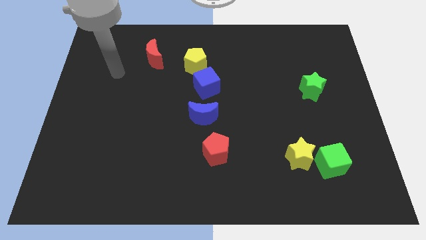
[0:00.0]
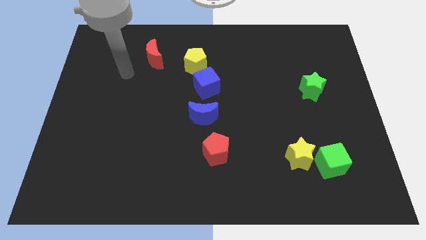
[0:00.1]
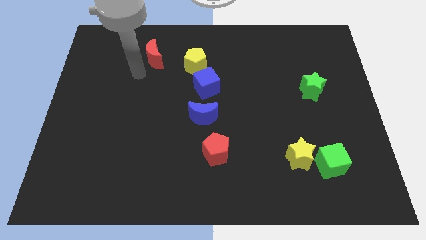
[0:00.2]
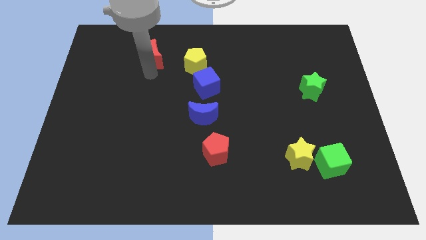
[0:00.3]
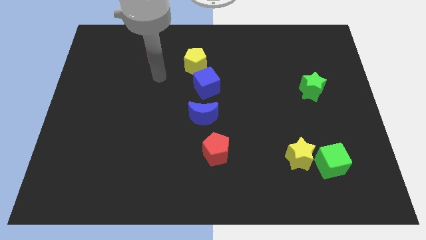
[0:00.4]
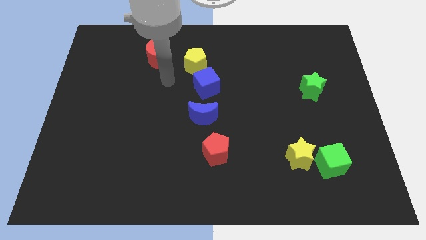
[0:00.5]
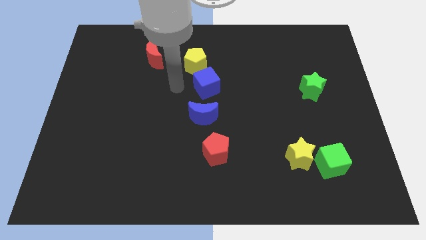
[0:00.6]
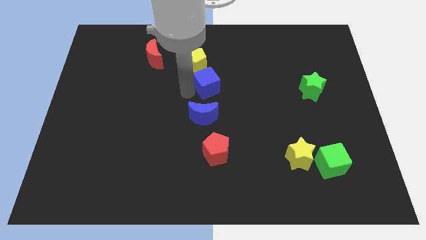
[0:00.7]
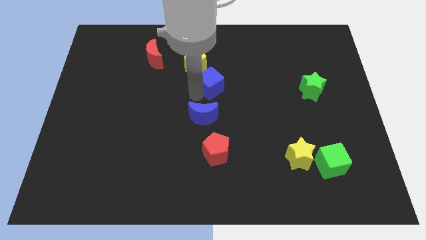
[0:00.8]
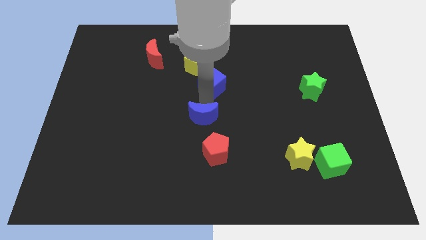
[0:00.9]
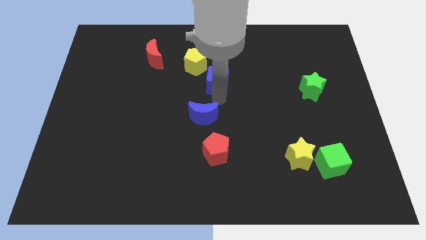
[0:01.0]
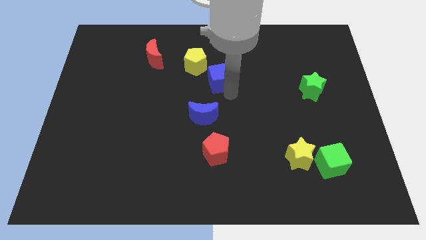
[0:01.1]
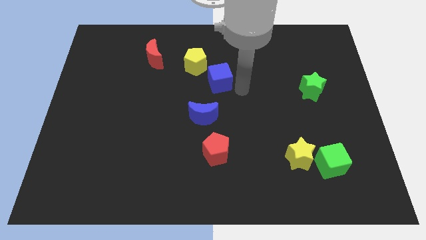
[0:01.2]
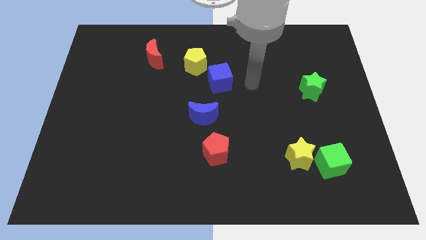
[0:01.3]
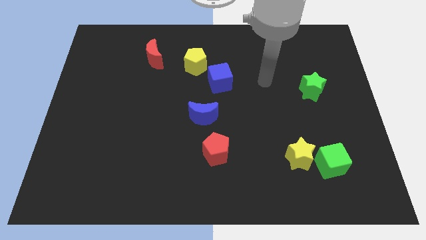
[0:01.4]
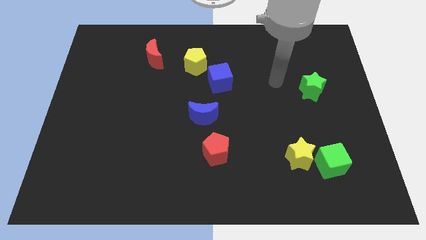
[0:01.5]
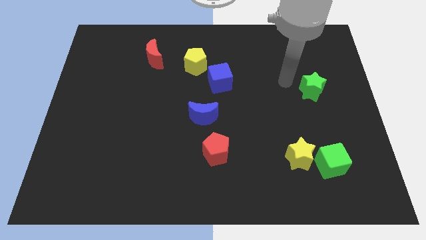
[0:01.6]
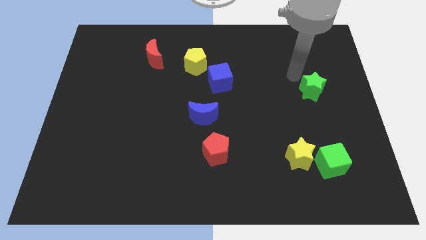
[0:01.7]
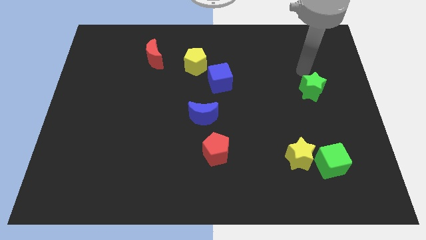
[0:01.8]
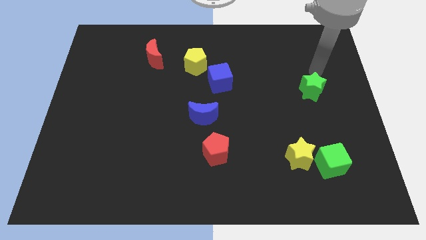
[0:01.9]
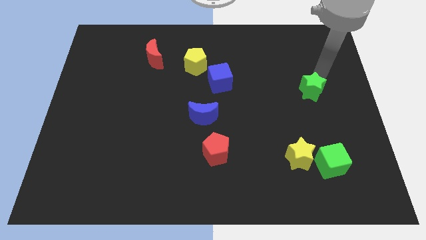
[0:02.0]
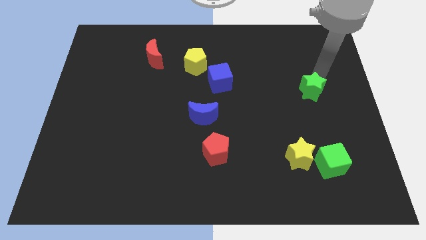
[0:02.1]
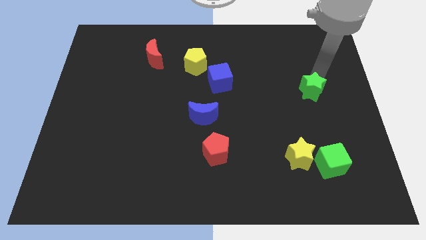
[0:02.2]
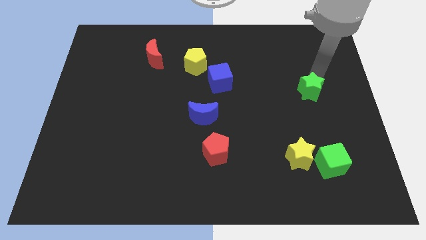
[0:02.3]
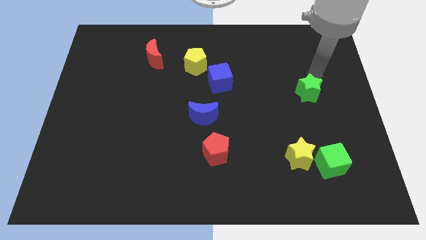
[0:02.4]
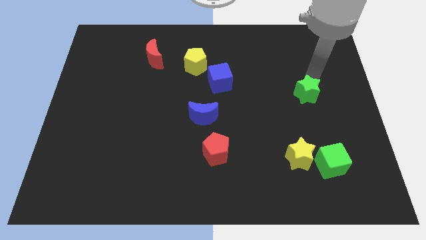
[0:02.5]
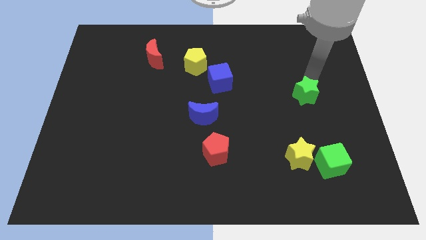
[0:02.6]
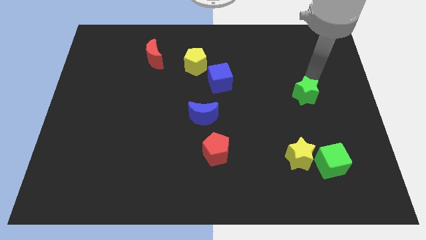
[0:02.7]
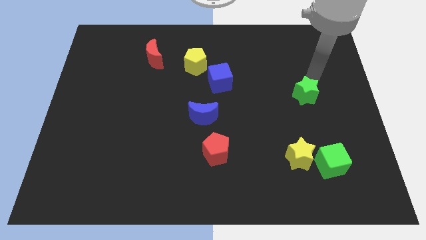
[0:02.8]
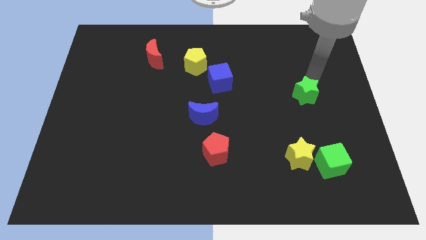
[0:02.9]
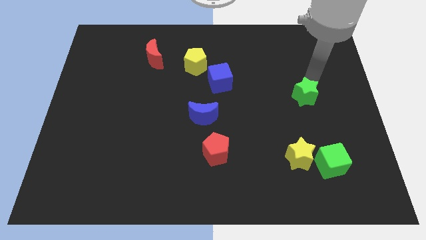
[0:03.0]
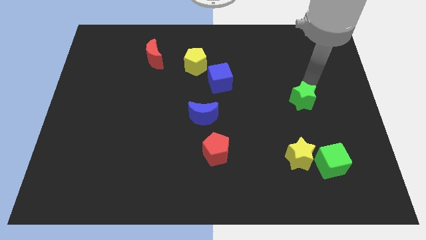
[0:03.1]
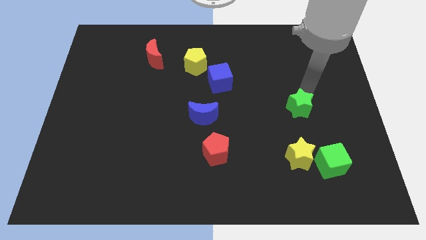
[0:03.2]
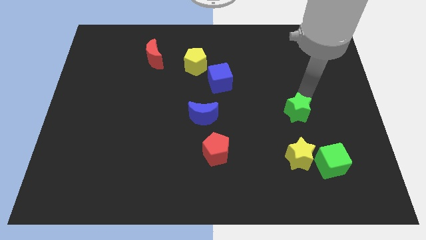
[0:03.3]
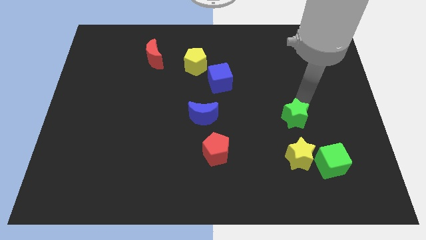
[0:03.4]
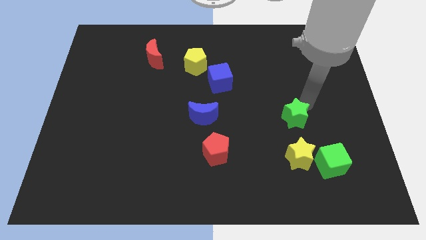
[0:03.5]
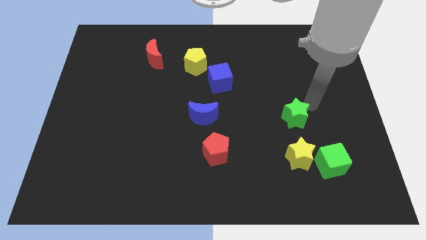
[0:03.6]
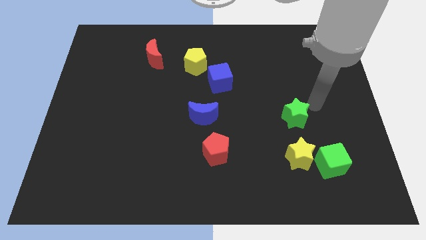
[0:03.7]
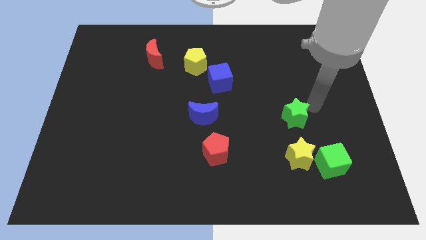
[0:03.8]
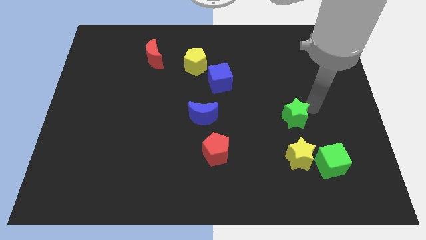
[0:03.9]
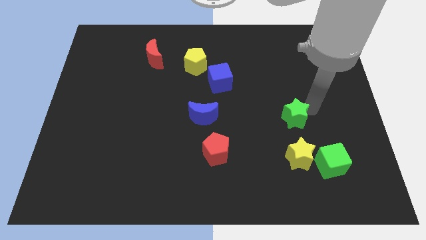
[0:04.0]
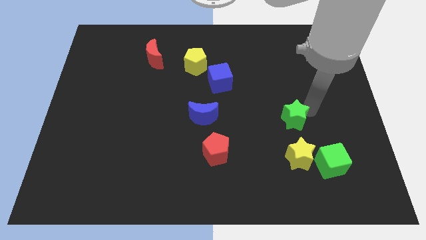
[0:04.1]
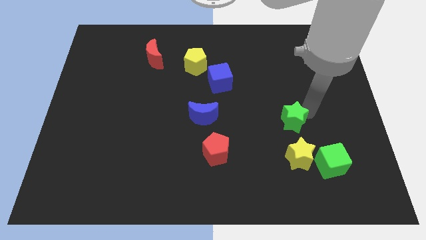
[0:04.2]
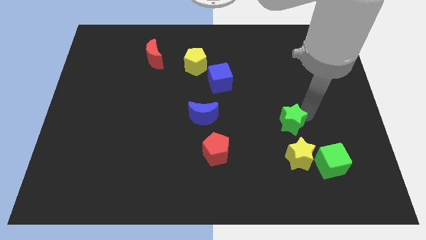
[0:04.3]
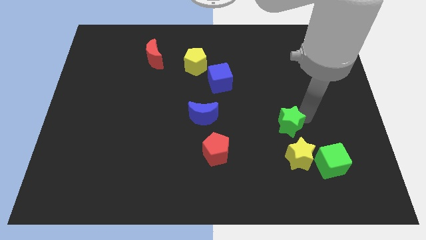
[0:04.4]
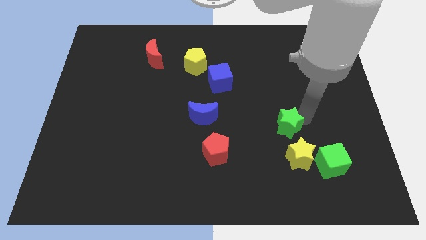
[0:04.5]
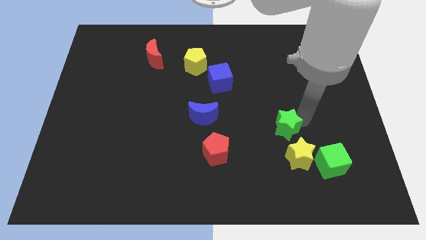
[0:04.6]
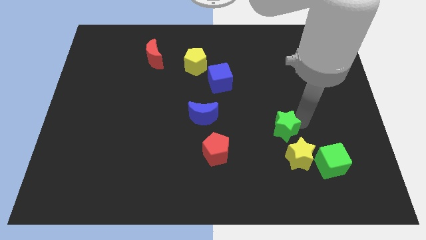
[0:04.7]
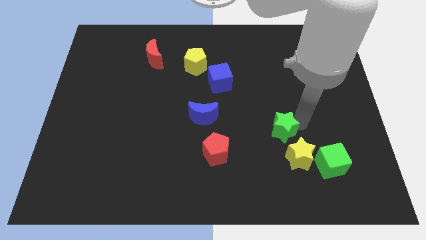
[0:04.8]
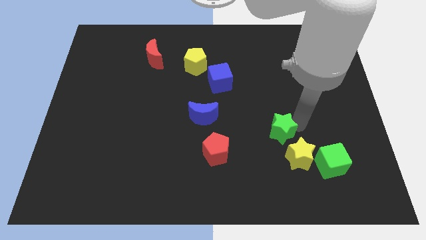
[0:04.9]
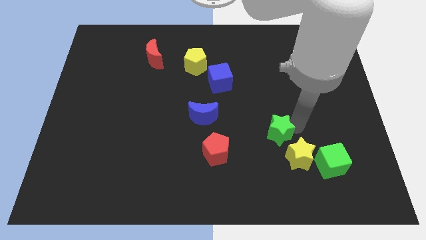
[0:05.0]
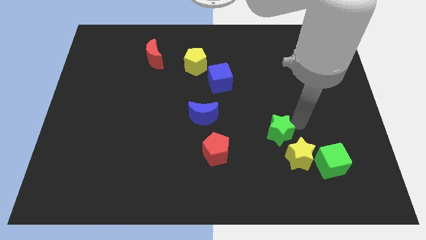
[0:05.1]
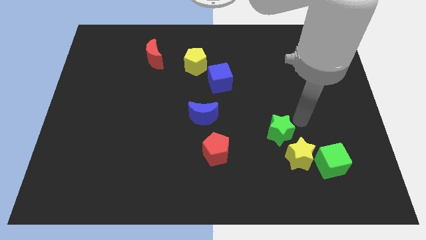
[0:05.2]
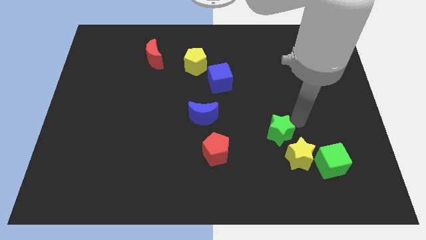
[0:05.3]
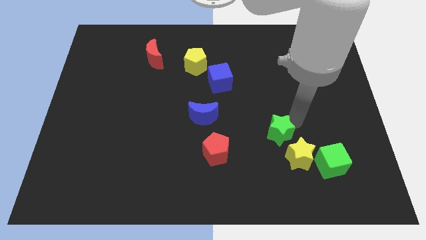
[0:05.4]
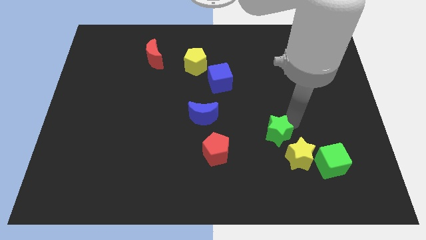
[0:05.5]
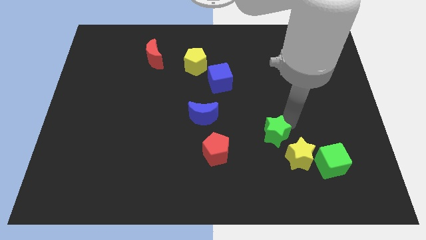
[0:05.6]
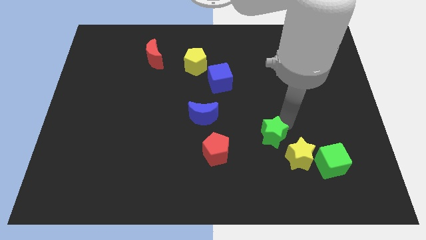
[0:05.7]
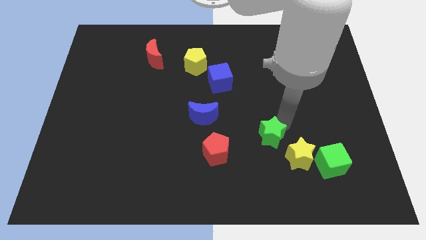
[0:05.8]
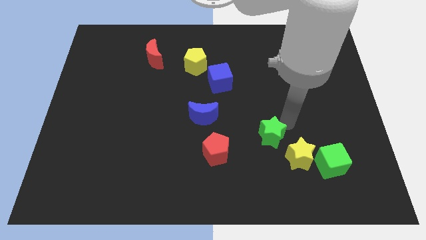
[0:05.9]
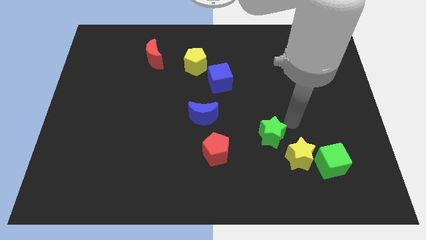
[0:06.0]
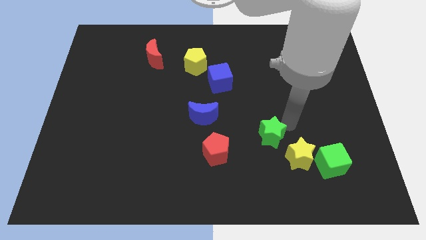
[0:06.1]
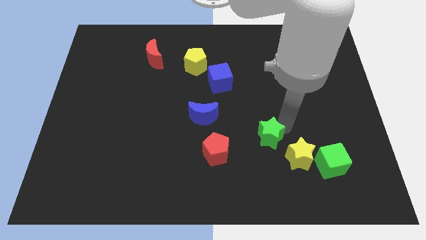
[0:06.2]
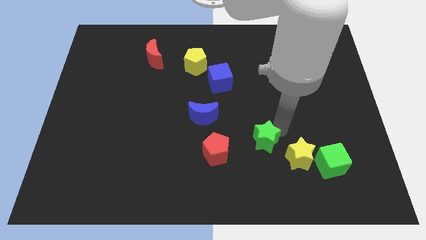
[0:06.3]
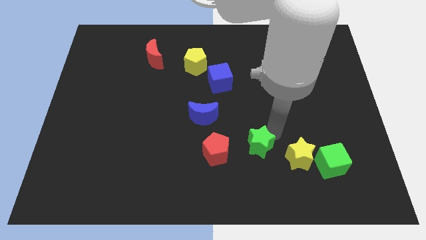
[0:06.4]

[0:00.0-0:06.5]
push the green star down and to the left diagonally

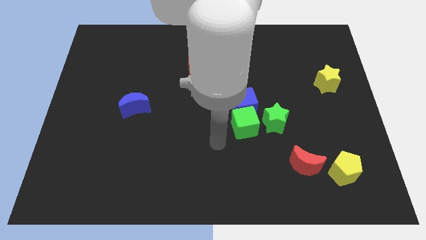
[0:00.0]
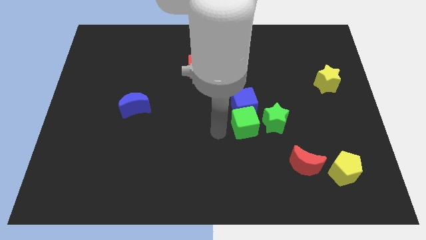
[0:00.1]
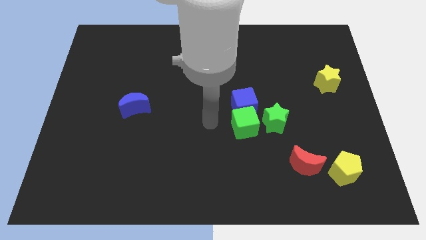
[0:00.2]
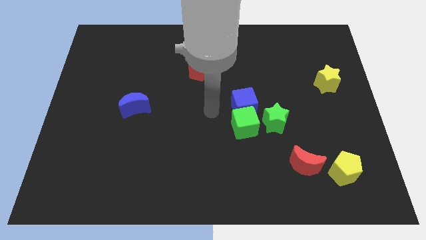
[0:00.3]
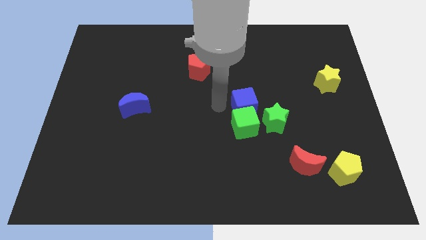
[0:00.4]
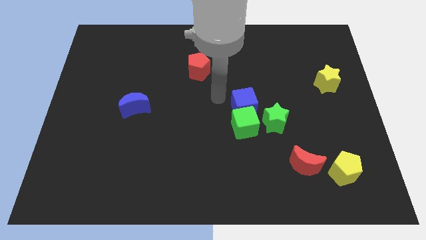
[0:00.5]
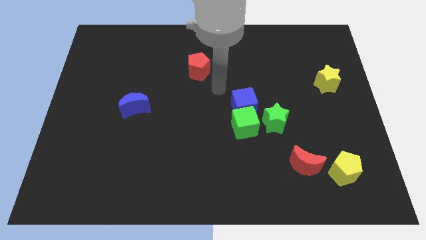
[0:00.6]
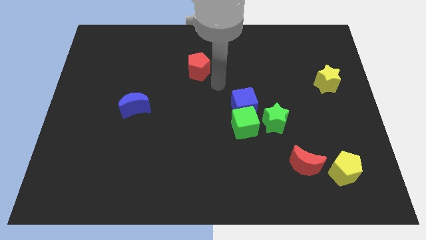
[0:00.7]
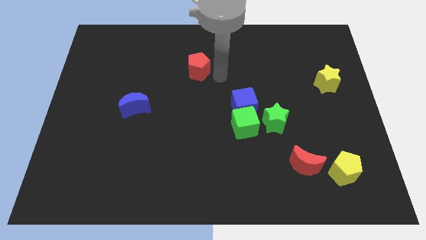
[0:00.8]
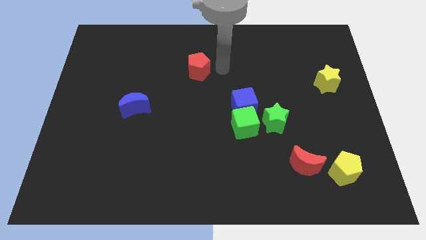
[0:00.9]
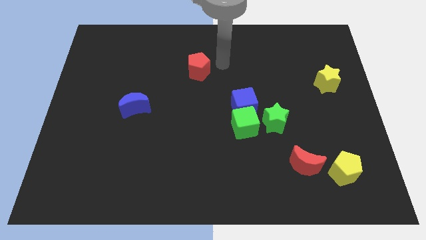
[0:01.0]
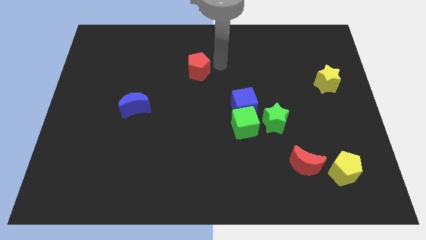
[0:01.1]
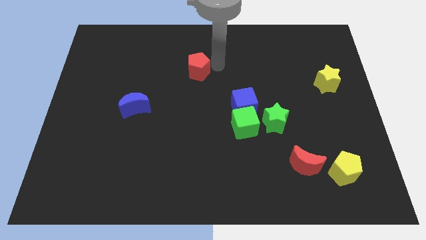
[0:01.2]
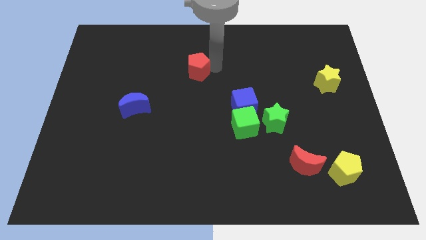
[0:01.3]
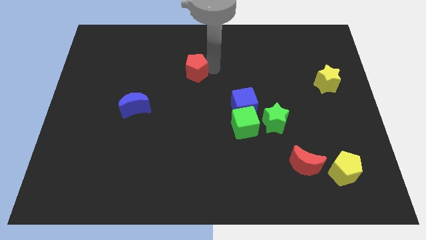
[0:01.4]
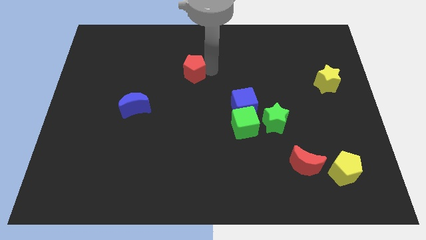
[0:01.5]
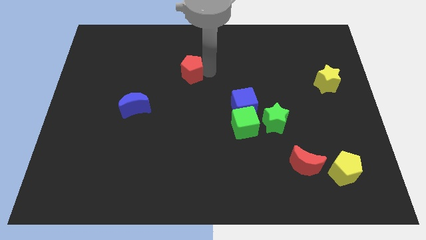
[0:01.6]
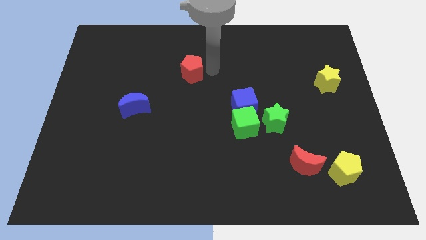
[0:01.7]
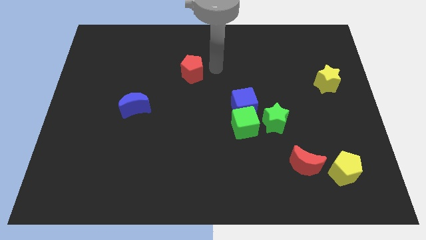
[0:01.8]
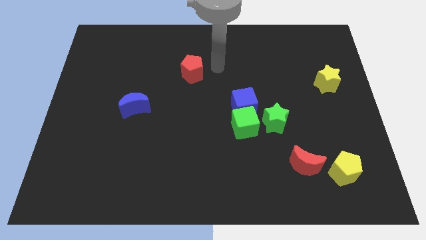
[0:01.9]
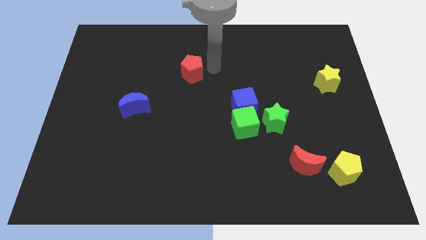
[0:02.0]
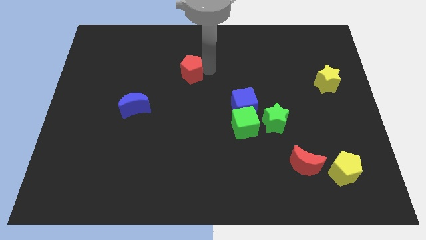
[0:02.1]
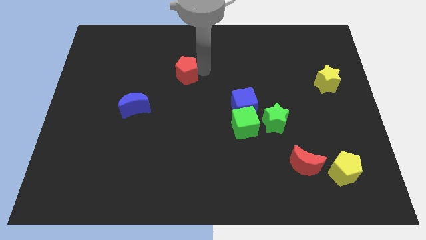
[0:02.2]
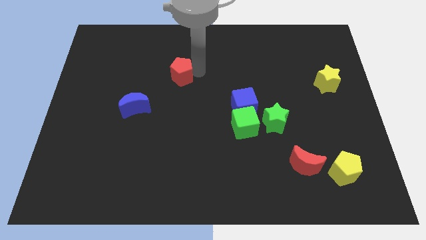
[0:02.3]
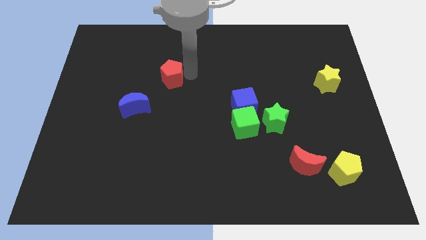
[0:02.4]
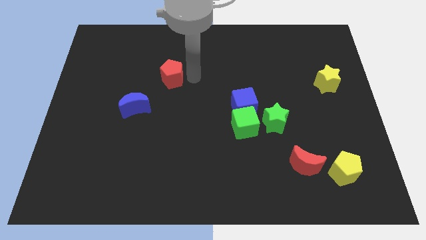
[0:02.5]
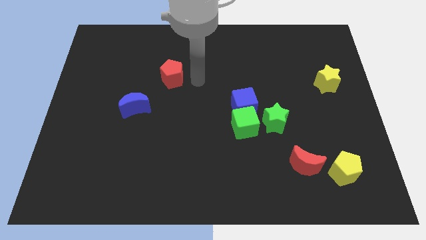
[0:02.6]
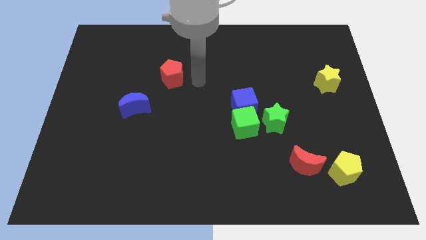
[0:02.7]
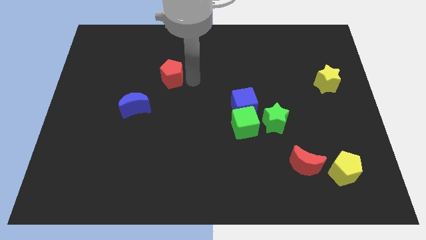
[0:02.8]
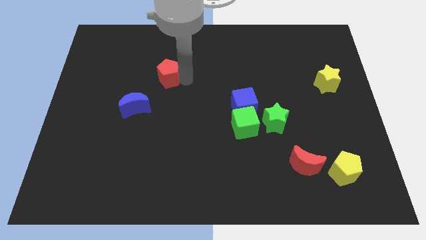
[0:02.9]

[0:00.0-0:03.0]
slightly move the red pentagon to the left
